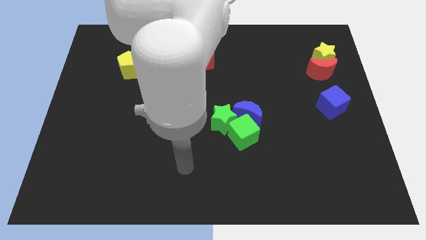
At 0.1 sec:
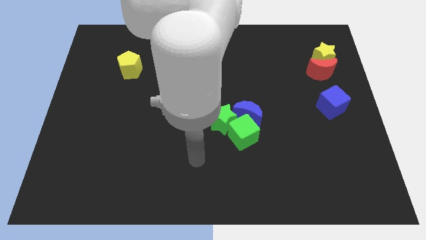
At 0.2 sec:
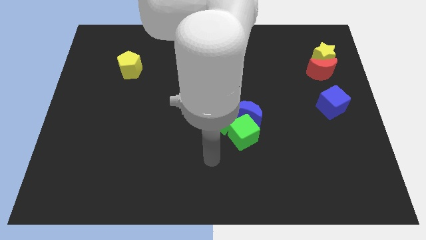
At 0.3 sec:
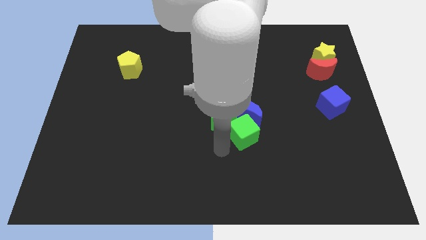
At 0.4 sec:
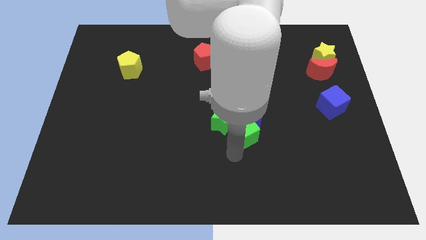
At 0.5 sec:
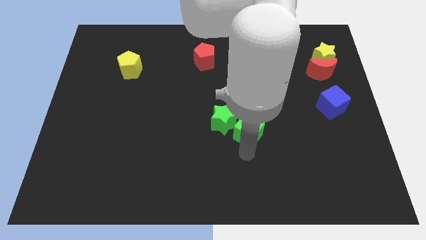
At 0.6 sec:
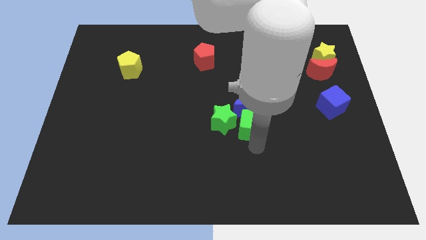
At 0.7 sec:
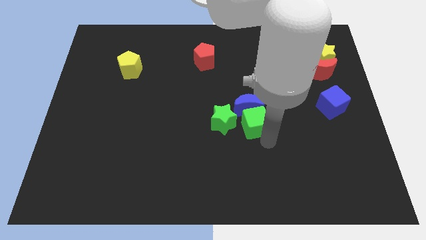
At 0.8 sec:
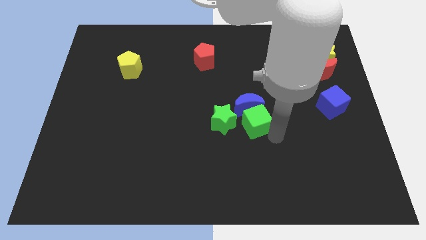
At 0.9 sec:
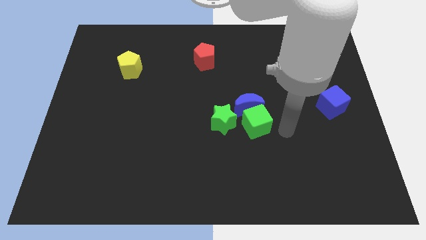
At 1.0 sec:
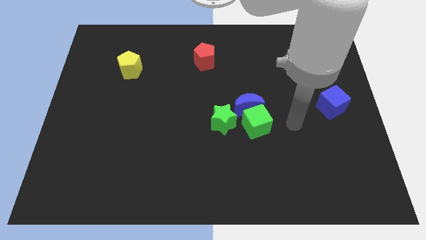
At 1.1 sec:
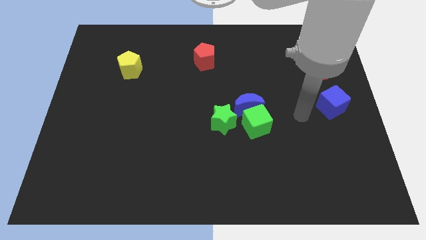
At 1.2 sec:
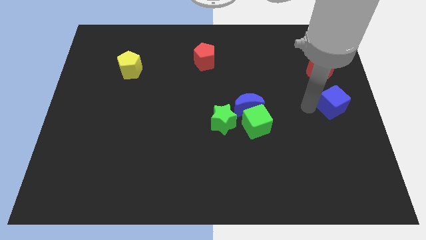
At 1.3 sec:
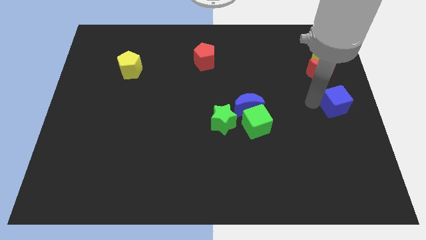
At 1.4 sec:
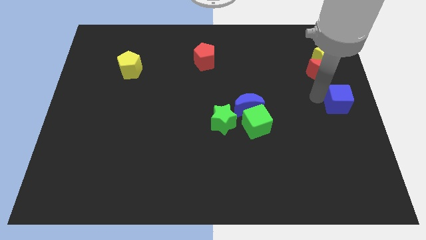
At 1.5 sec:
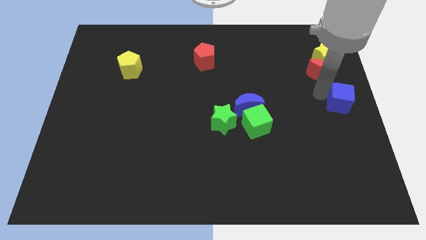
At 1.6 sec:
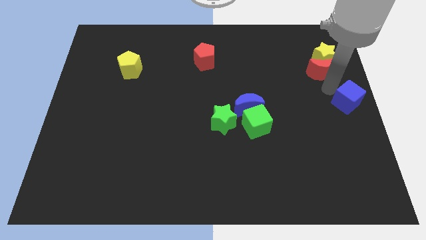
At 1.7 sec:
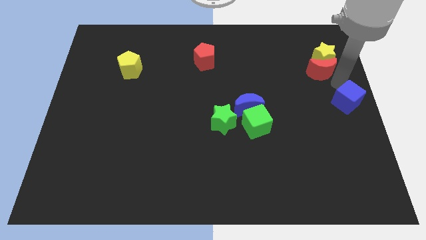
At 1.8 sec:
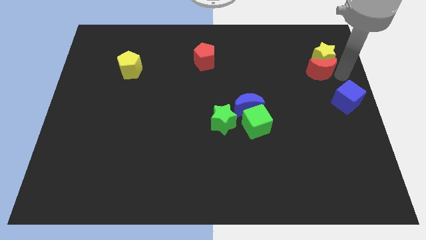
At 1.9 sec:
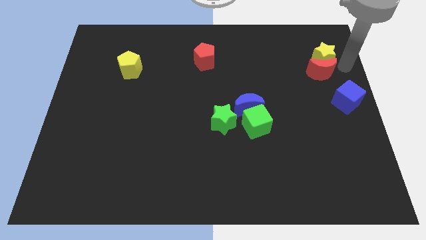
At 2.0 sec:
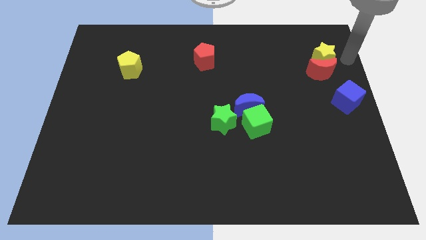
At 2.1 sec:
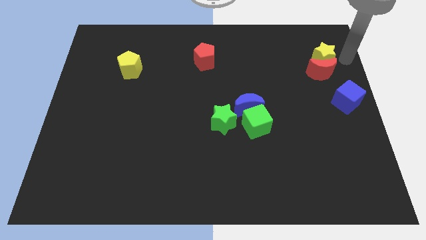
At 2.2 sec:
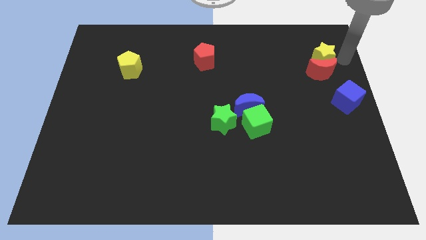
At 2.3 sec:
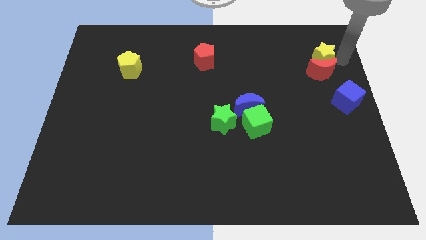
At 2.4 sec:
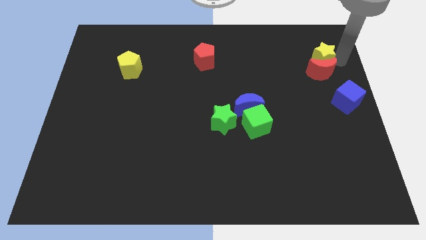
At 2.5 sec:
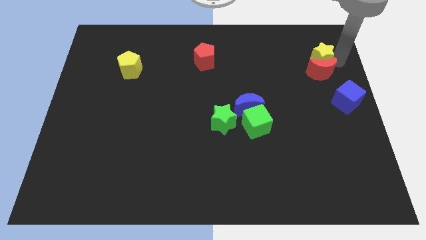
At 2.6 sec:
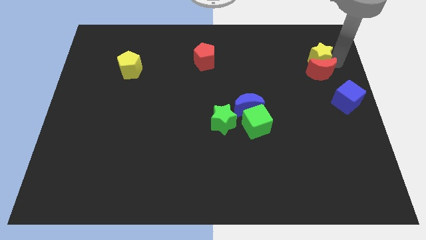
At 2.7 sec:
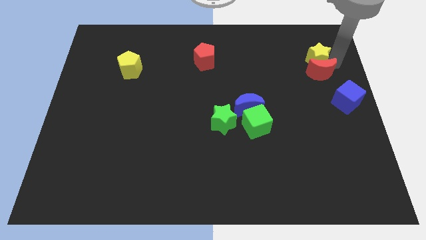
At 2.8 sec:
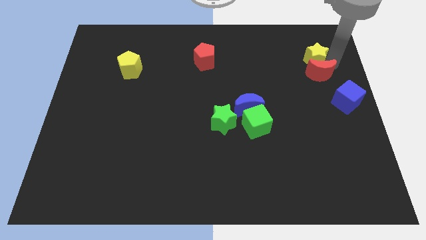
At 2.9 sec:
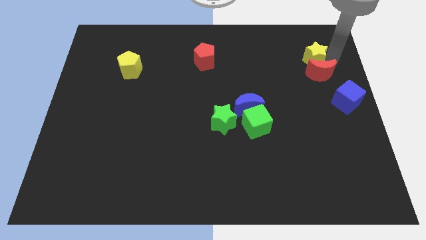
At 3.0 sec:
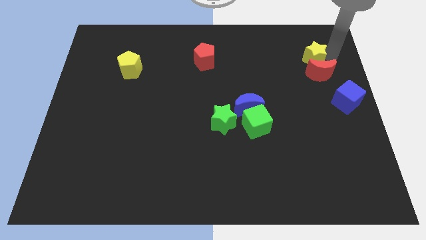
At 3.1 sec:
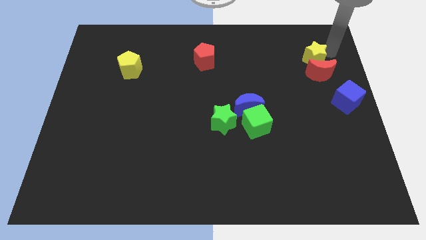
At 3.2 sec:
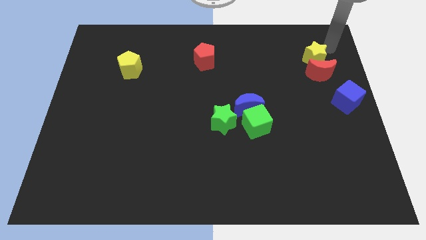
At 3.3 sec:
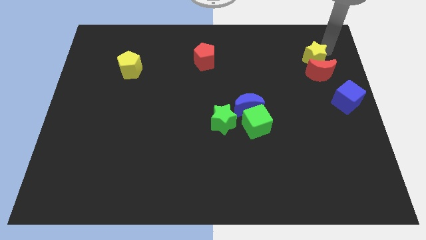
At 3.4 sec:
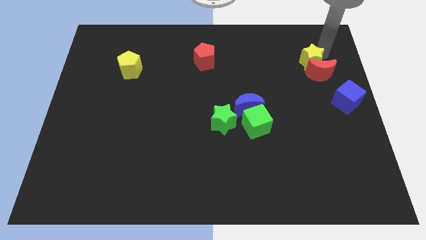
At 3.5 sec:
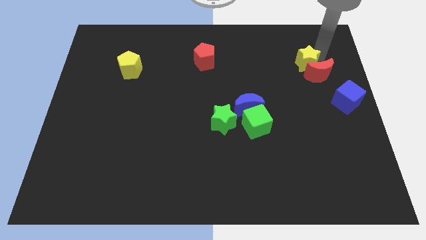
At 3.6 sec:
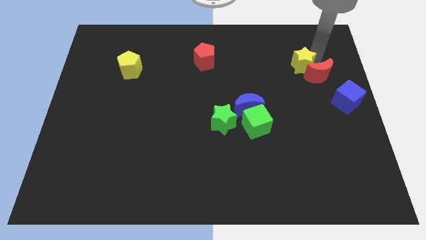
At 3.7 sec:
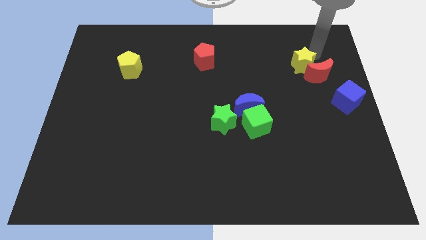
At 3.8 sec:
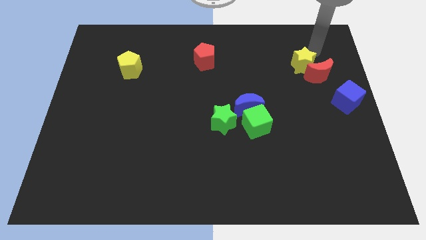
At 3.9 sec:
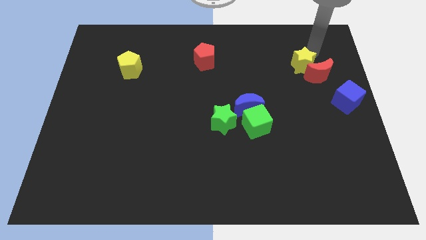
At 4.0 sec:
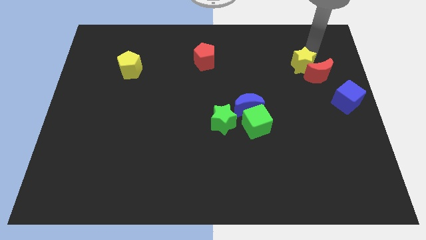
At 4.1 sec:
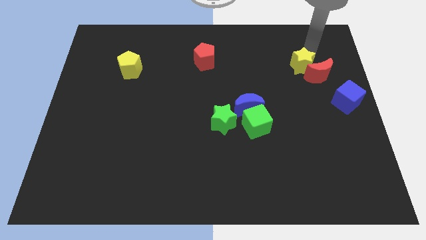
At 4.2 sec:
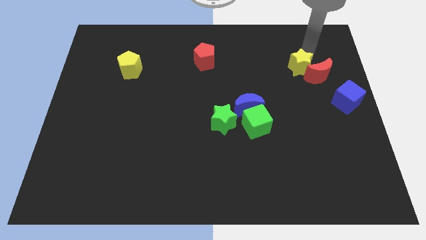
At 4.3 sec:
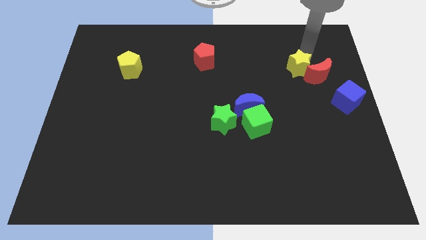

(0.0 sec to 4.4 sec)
slide the yellow star downwards and then left slightly

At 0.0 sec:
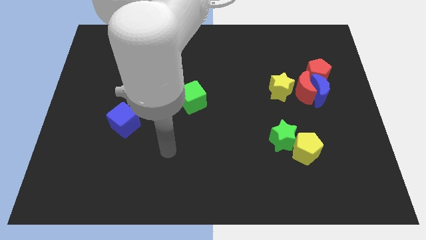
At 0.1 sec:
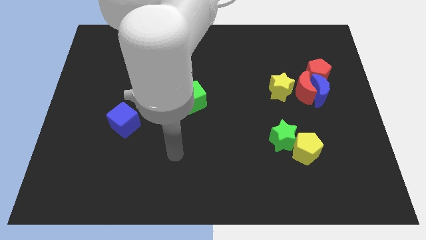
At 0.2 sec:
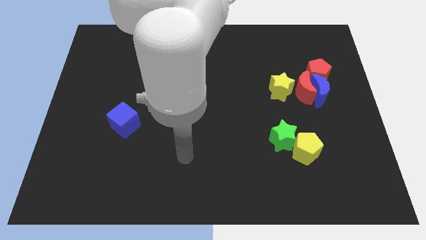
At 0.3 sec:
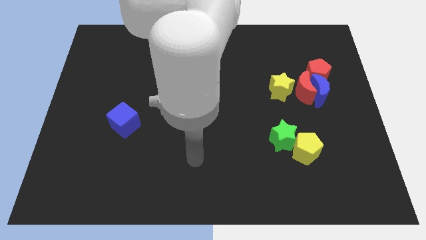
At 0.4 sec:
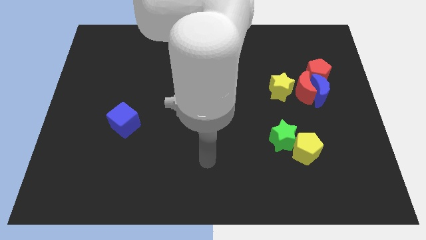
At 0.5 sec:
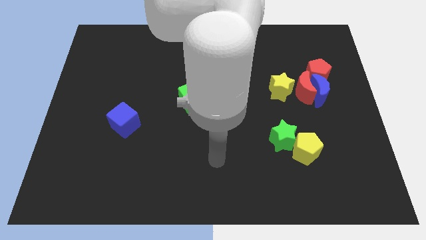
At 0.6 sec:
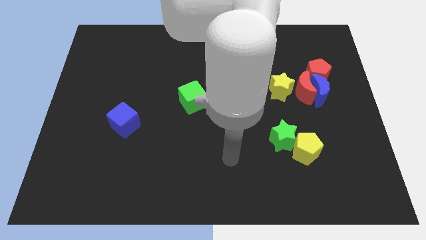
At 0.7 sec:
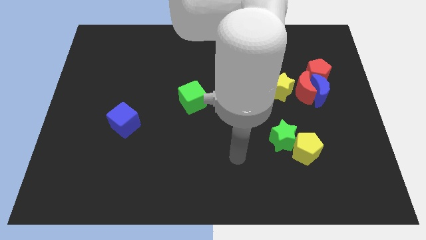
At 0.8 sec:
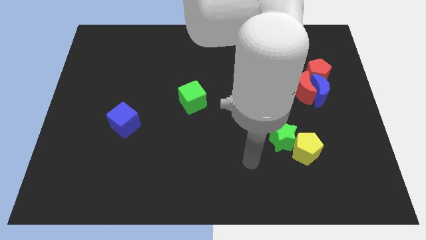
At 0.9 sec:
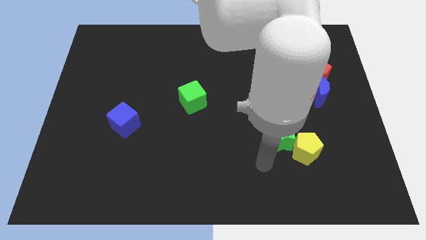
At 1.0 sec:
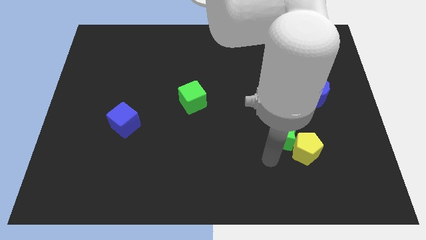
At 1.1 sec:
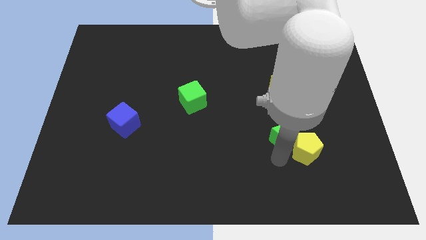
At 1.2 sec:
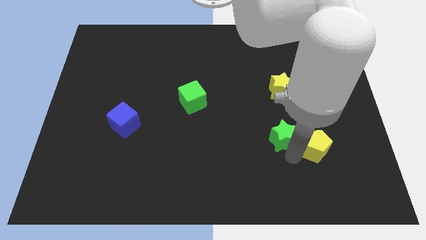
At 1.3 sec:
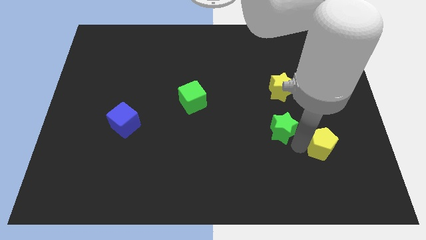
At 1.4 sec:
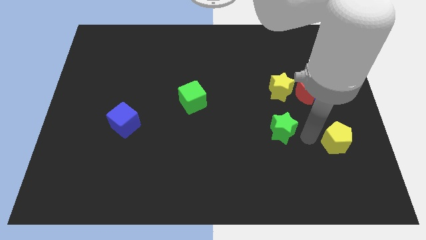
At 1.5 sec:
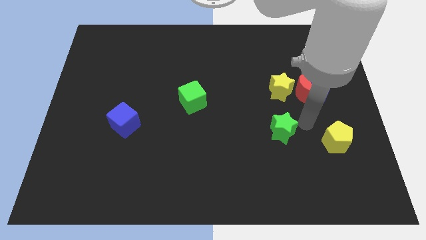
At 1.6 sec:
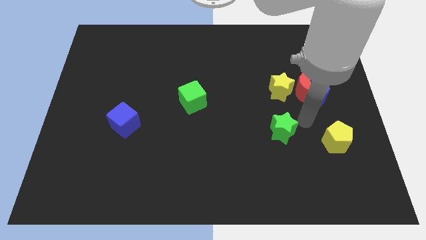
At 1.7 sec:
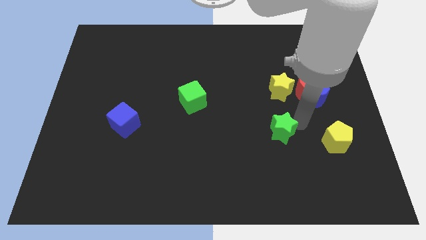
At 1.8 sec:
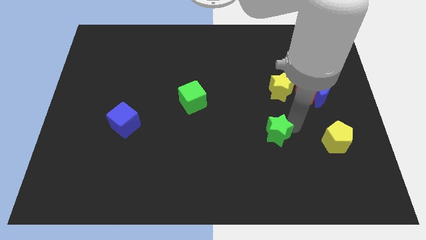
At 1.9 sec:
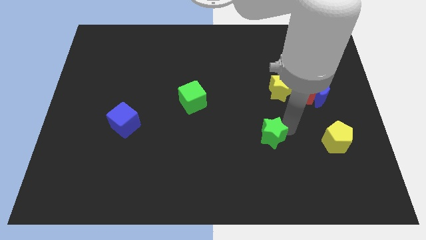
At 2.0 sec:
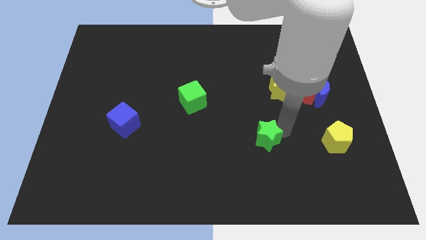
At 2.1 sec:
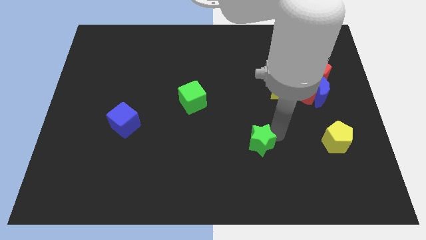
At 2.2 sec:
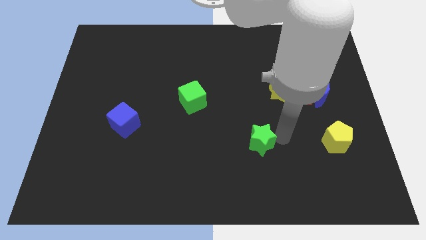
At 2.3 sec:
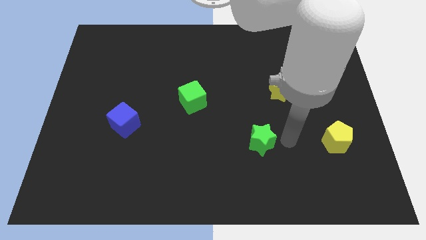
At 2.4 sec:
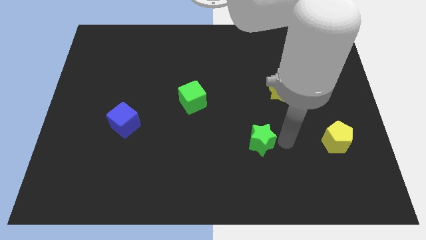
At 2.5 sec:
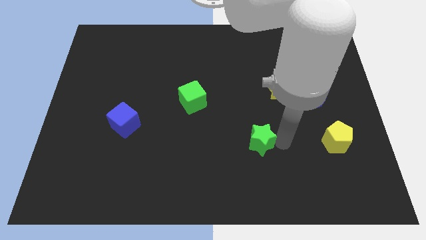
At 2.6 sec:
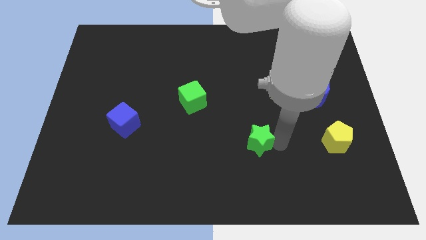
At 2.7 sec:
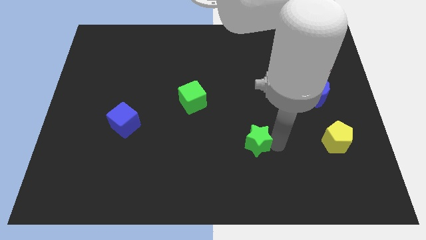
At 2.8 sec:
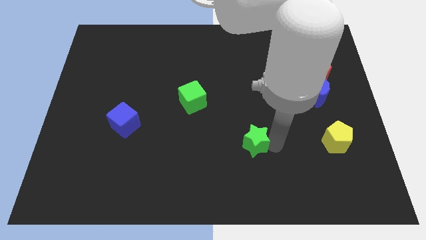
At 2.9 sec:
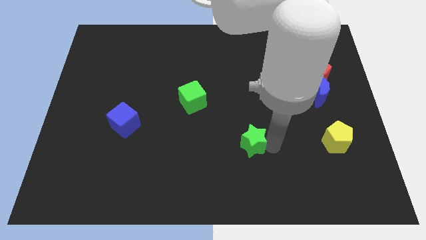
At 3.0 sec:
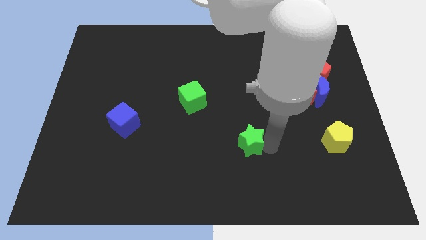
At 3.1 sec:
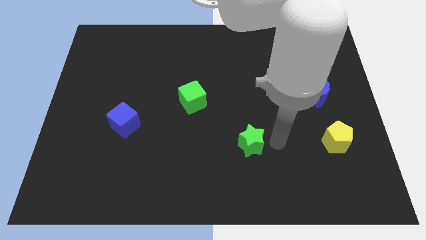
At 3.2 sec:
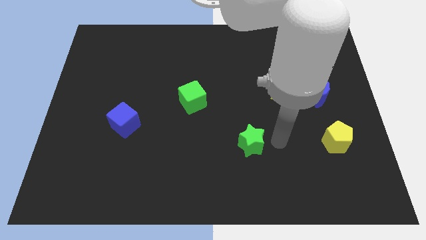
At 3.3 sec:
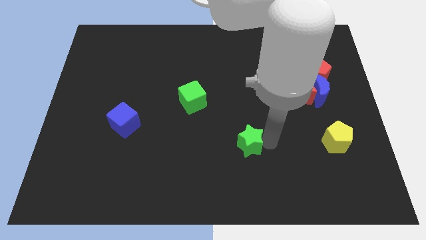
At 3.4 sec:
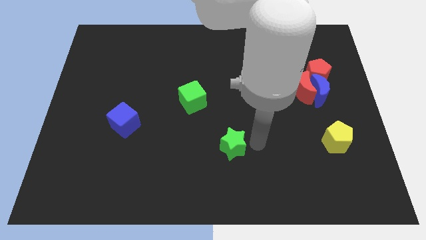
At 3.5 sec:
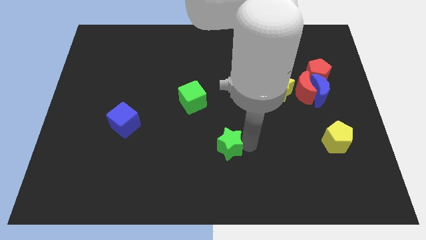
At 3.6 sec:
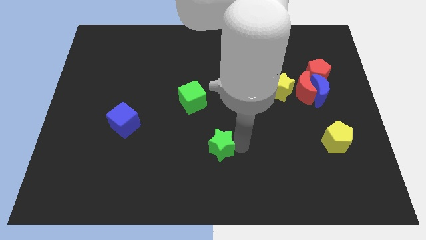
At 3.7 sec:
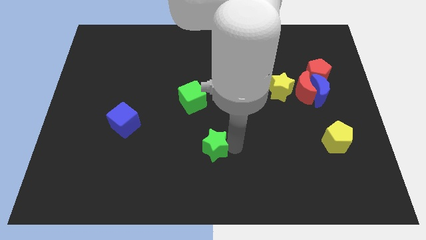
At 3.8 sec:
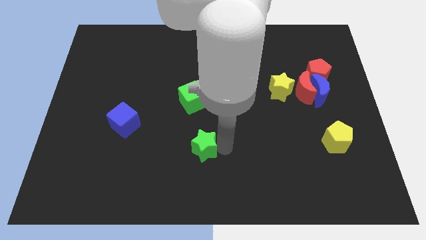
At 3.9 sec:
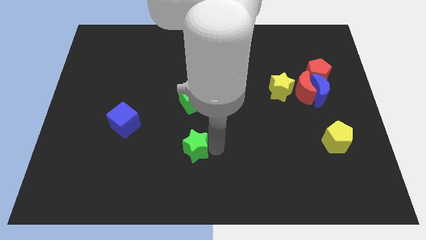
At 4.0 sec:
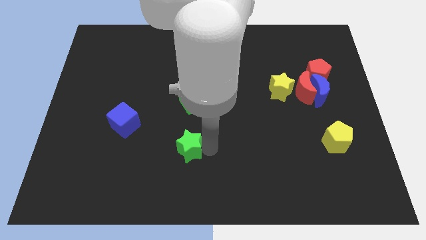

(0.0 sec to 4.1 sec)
slide the green star left
